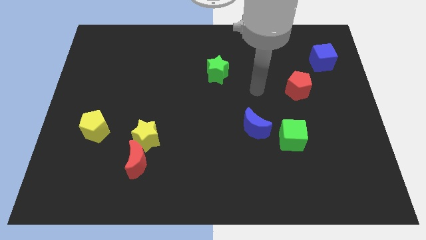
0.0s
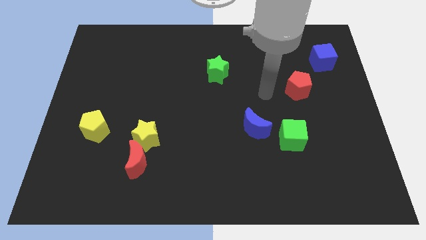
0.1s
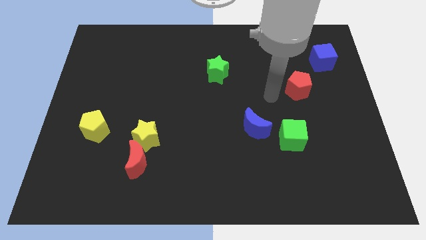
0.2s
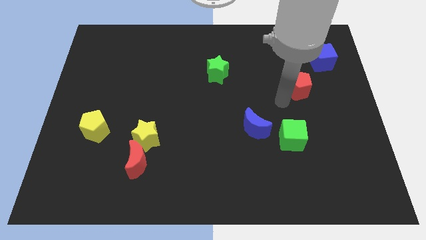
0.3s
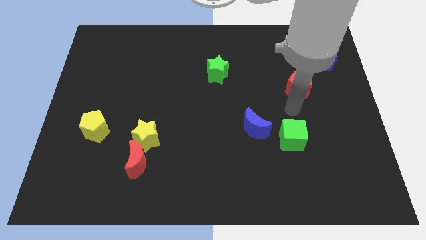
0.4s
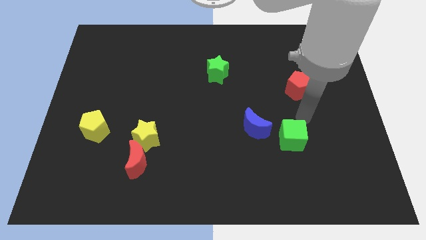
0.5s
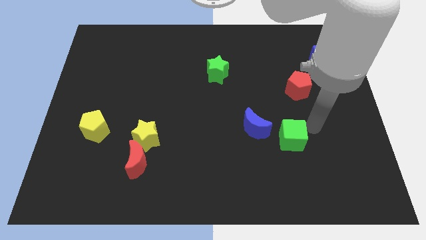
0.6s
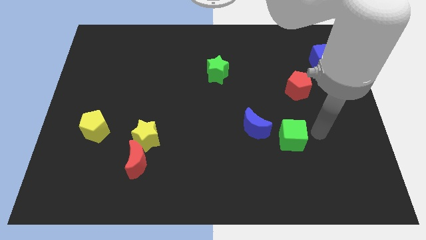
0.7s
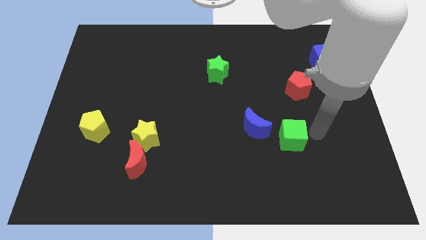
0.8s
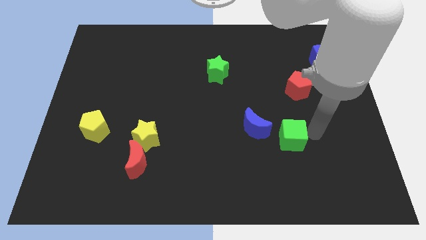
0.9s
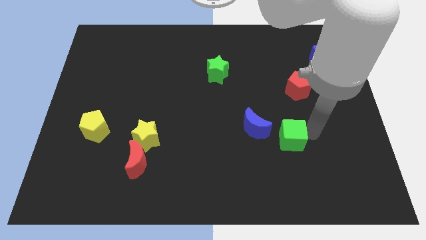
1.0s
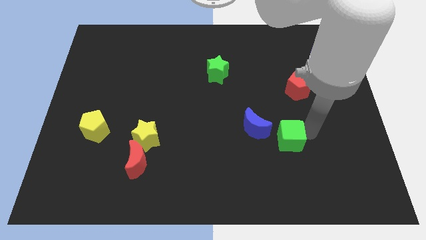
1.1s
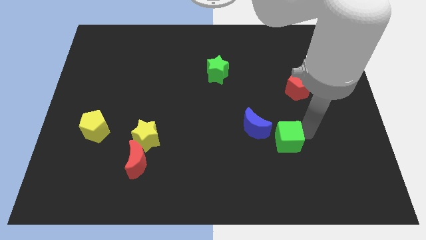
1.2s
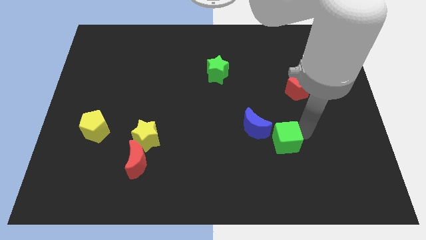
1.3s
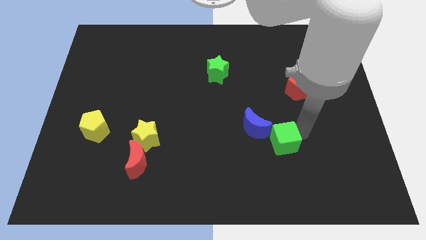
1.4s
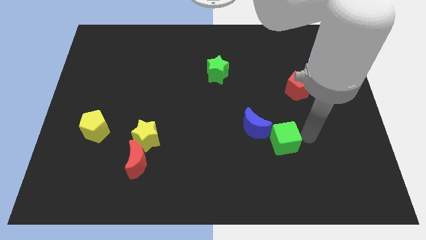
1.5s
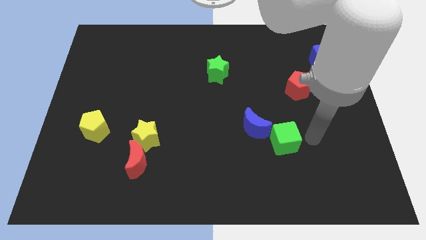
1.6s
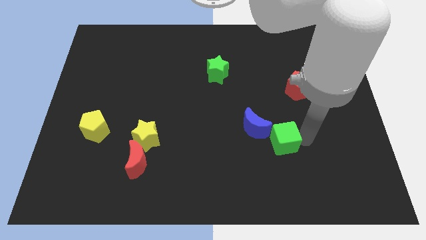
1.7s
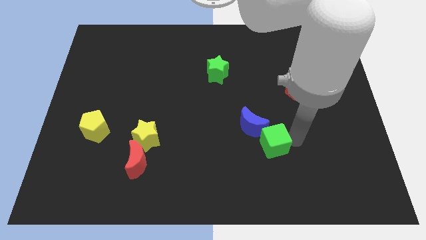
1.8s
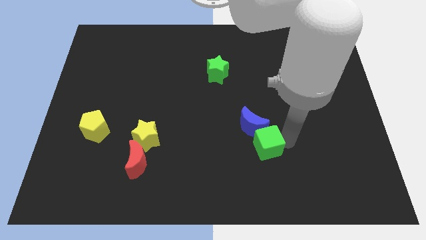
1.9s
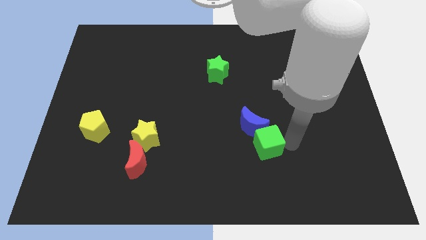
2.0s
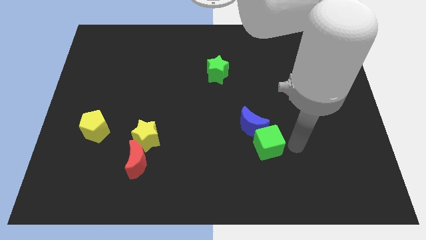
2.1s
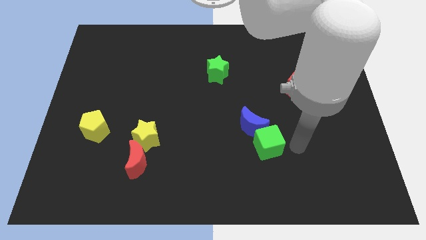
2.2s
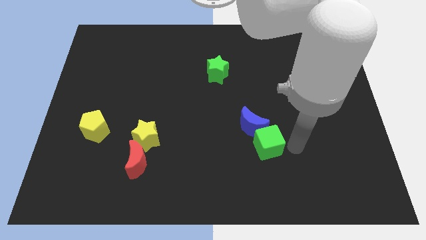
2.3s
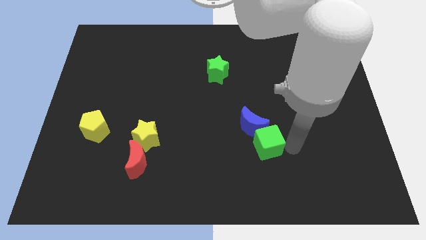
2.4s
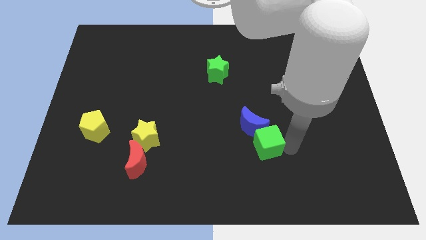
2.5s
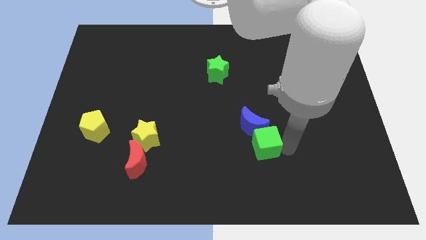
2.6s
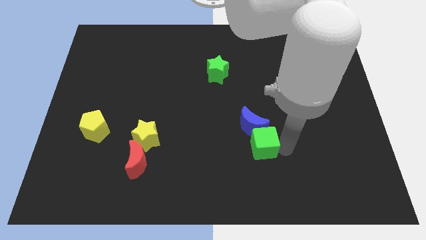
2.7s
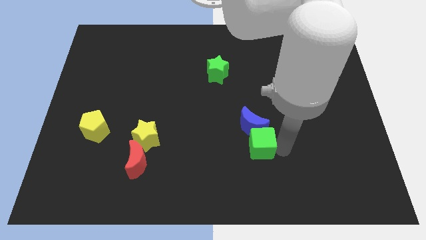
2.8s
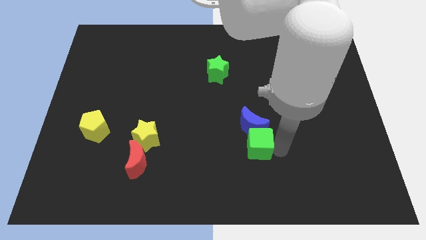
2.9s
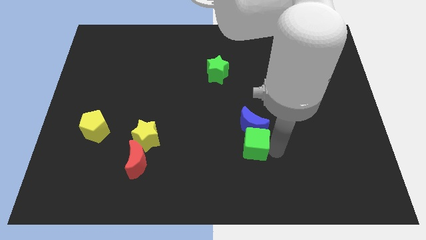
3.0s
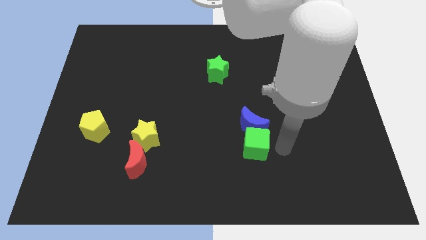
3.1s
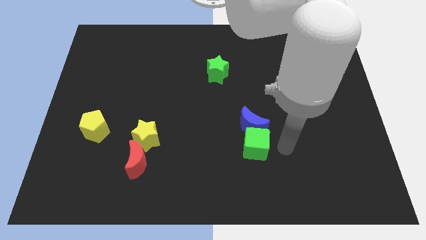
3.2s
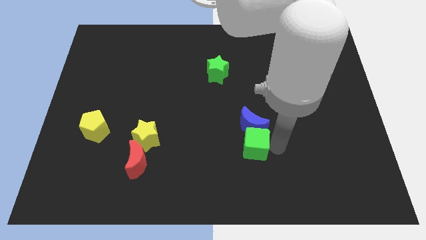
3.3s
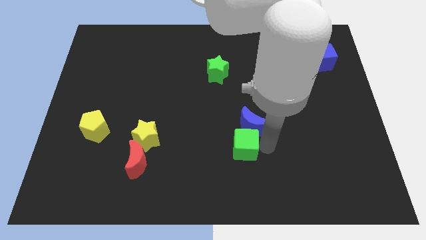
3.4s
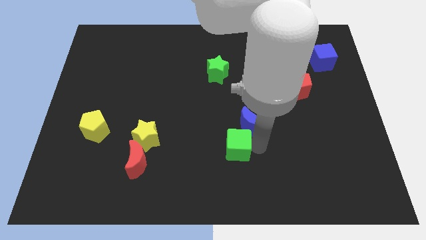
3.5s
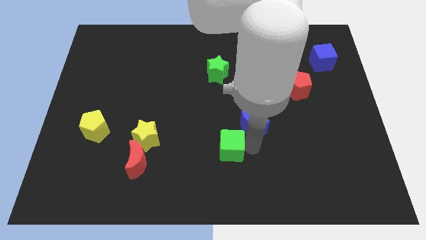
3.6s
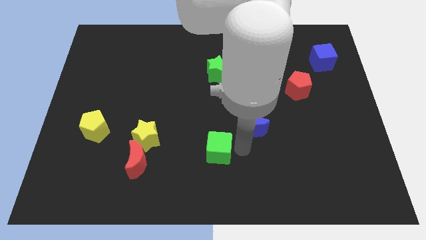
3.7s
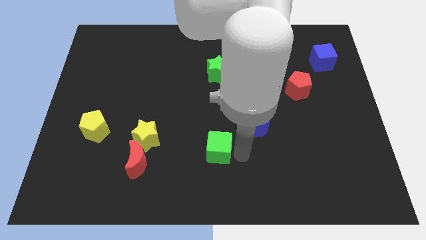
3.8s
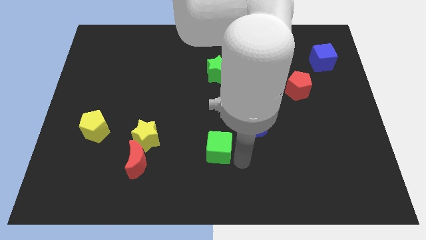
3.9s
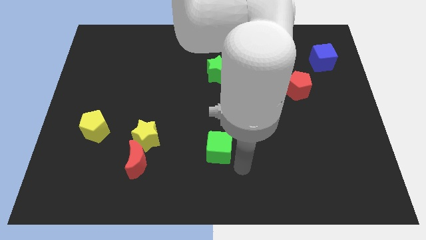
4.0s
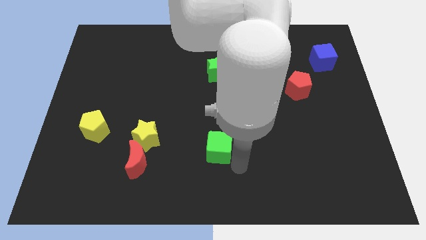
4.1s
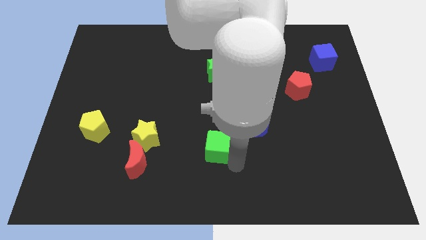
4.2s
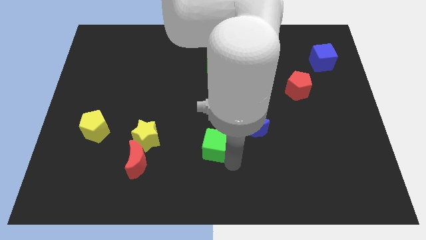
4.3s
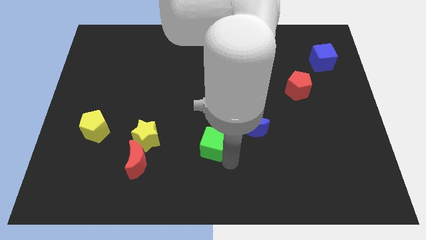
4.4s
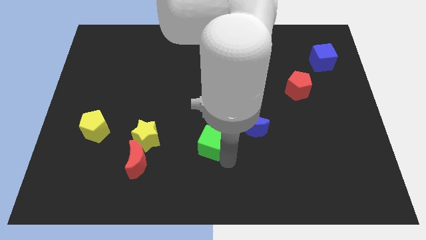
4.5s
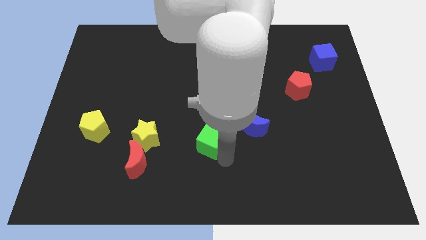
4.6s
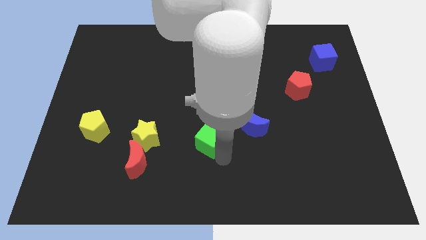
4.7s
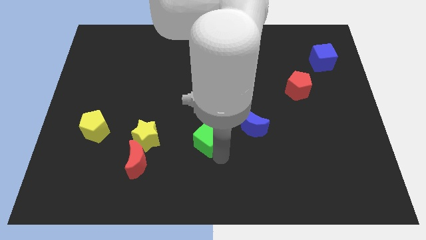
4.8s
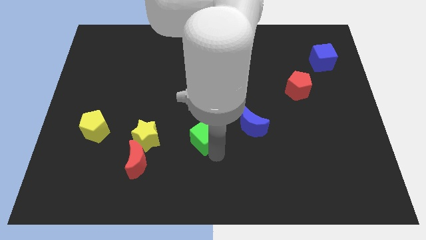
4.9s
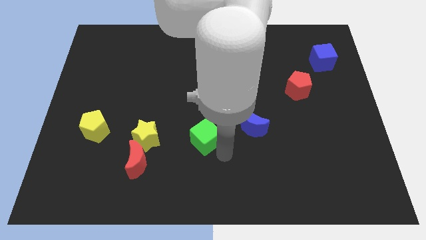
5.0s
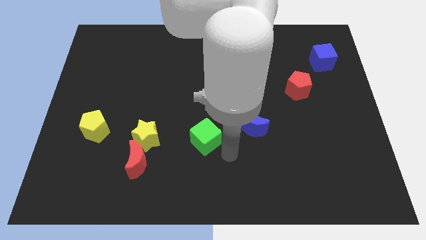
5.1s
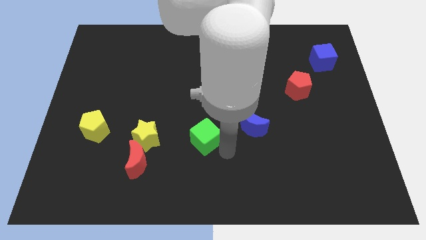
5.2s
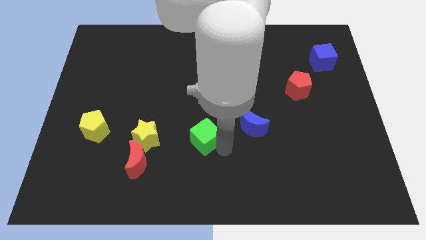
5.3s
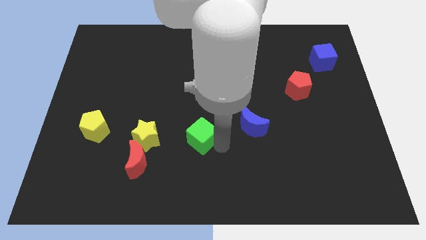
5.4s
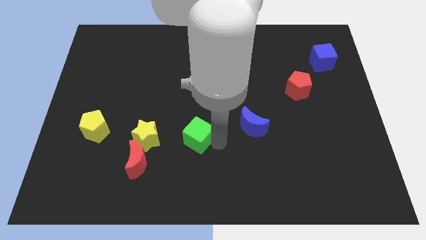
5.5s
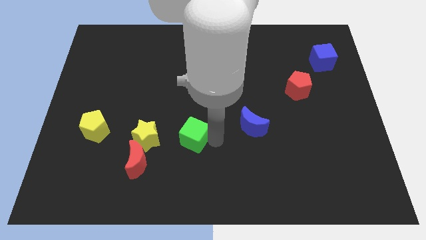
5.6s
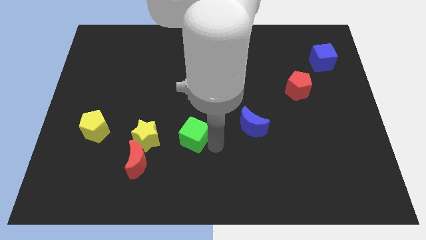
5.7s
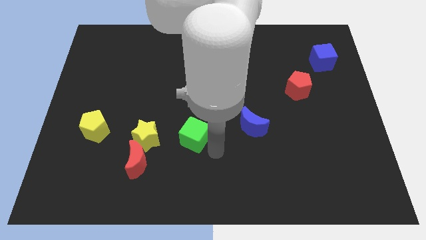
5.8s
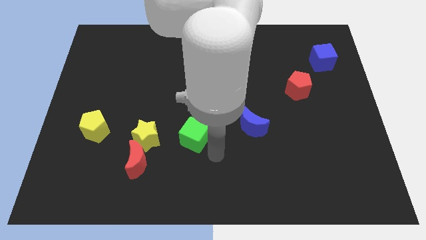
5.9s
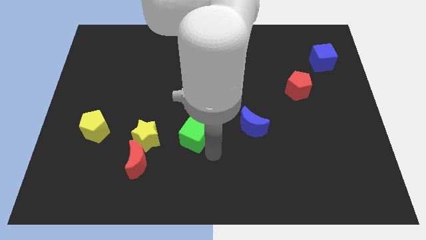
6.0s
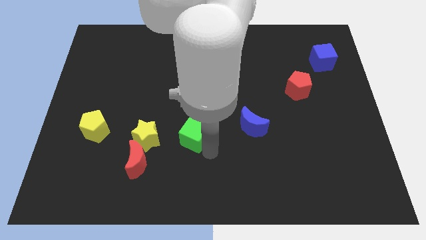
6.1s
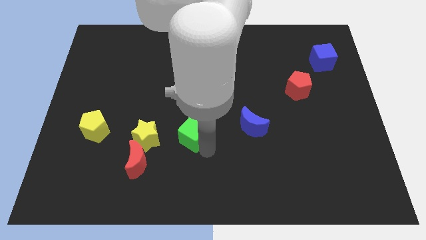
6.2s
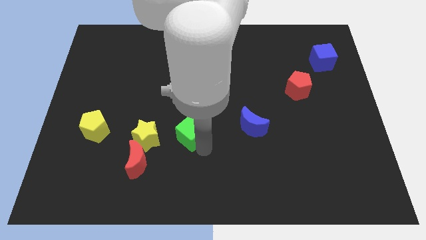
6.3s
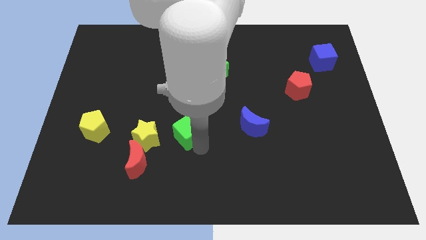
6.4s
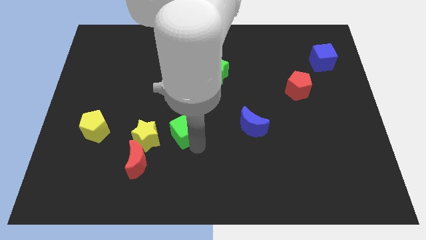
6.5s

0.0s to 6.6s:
move the green cube diagonally up and to the right of the yellow star
